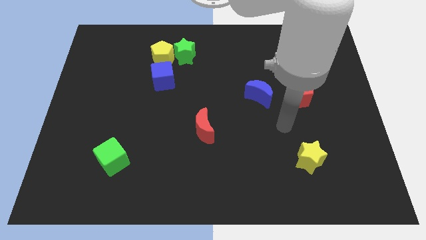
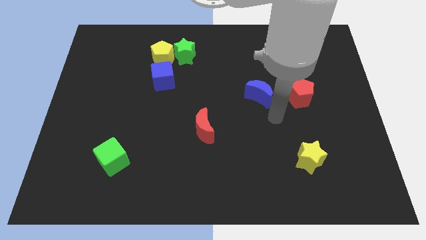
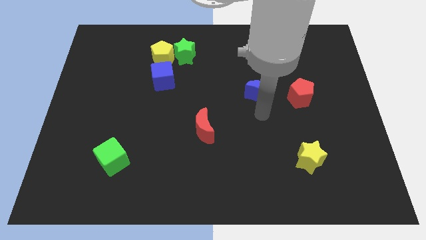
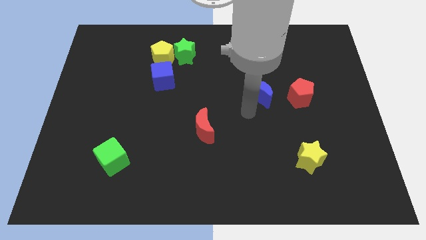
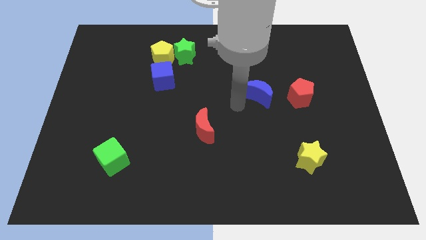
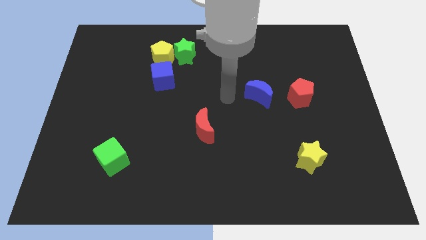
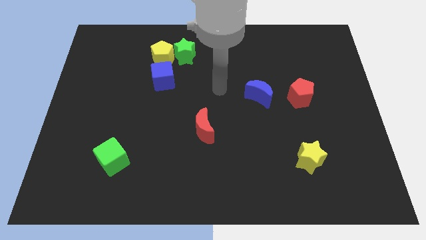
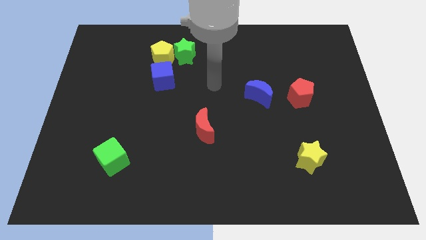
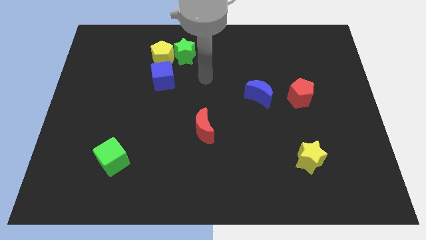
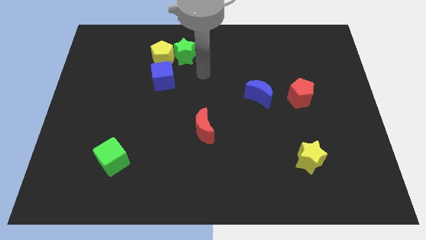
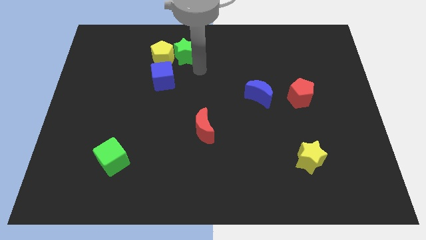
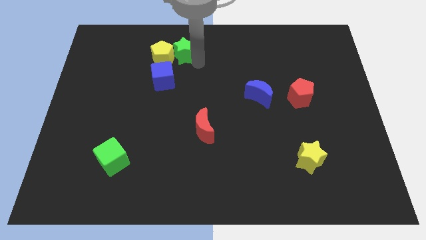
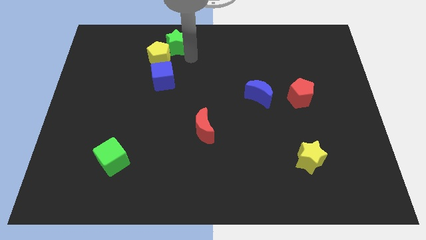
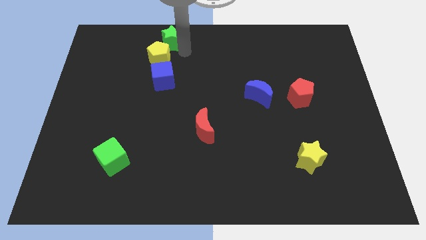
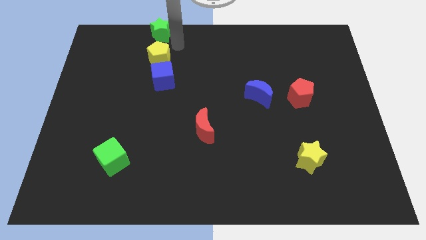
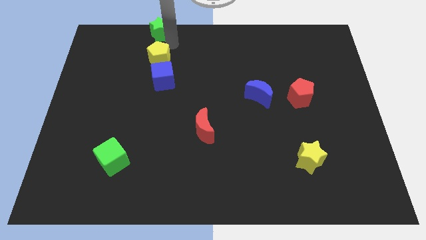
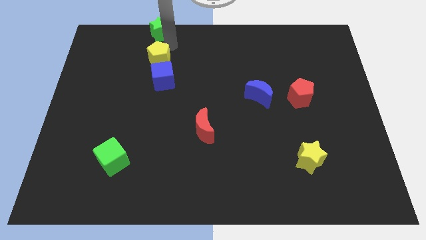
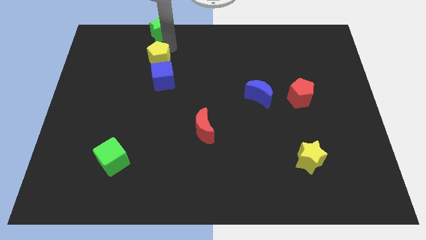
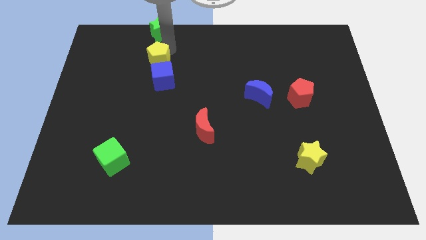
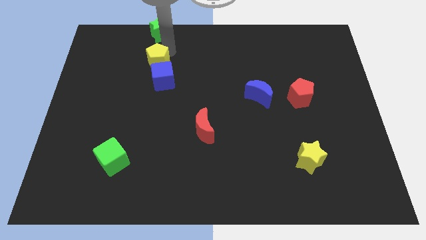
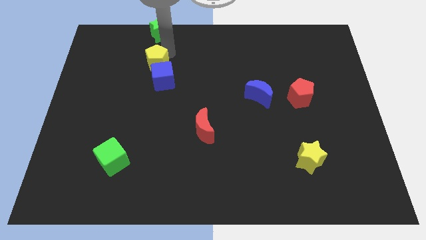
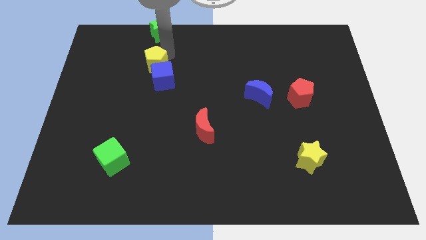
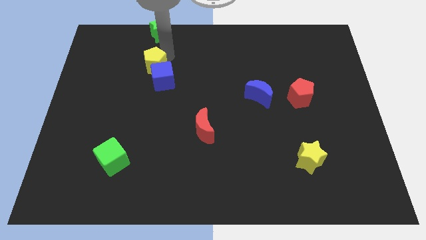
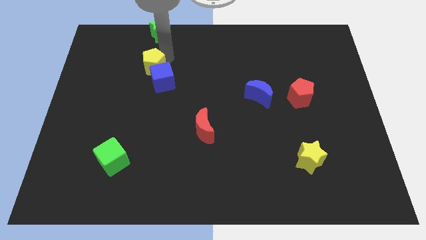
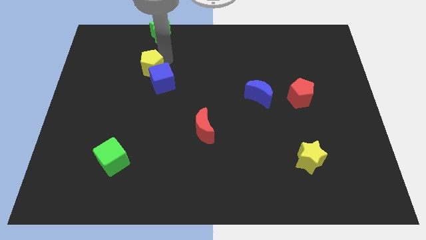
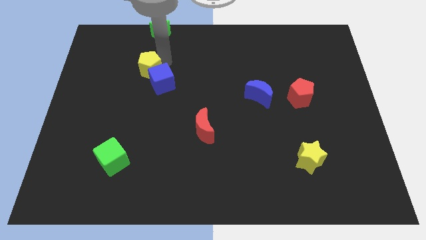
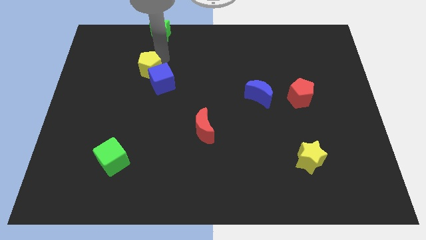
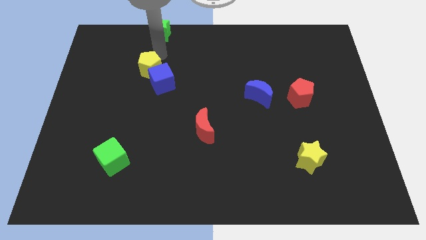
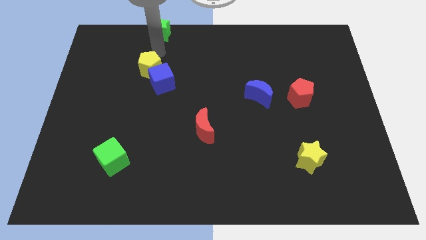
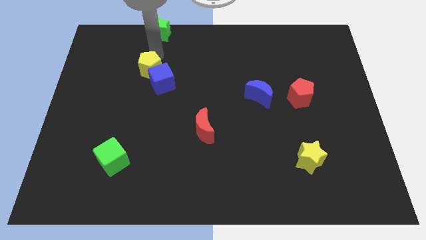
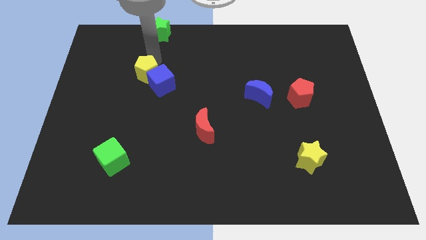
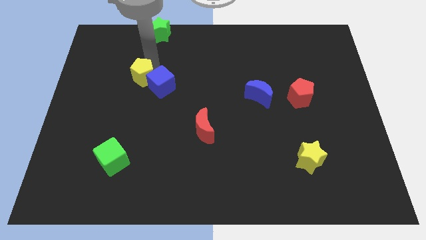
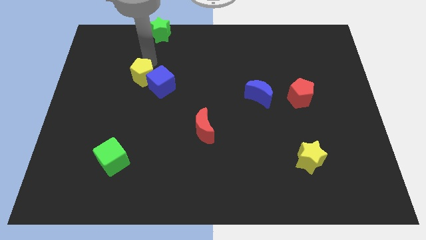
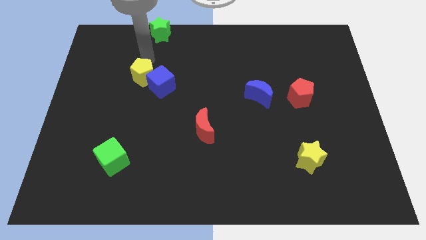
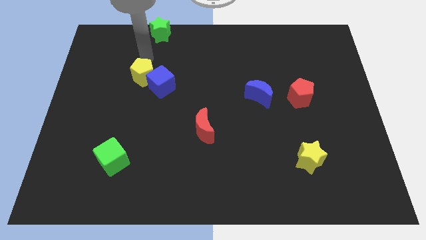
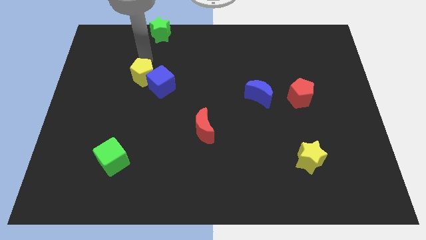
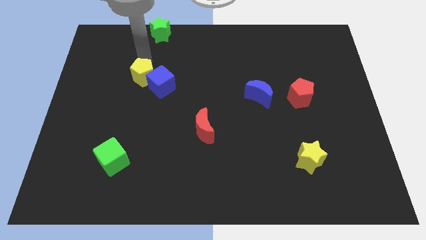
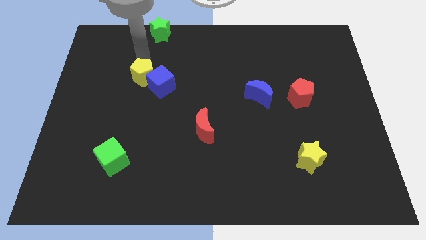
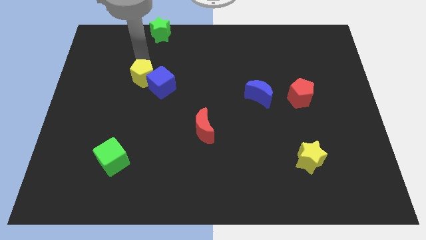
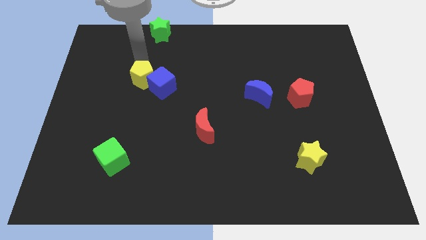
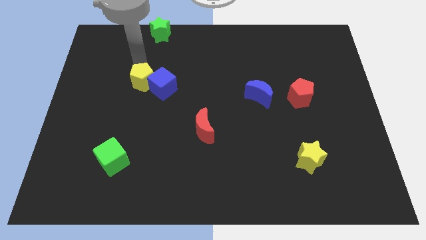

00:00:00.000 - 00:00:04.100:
move the yellow pentagon a little bit down

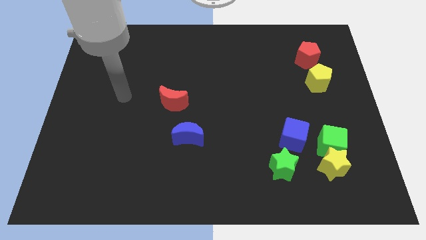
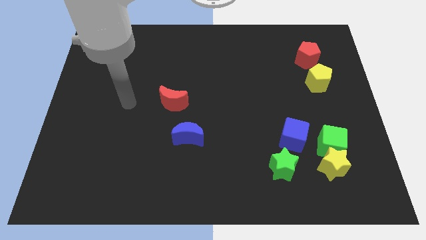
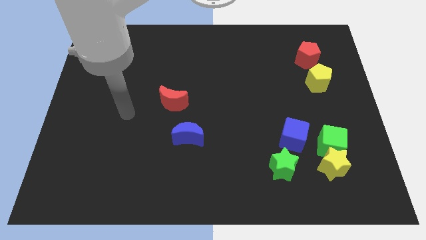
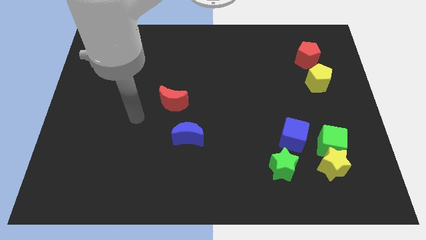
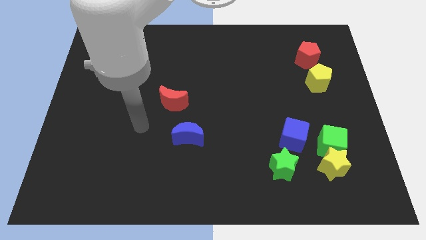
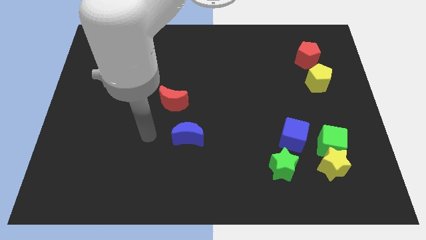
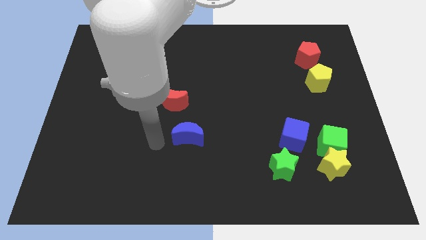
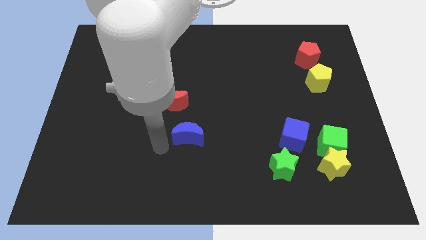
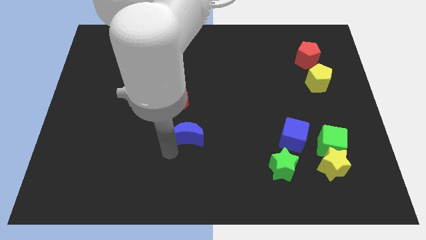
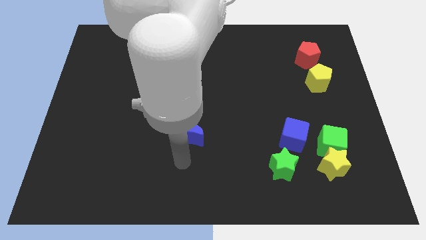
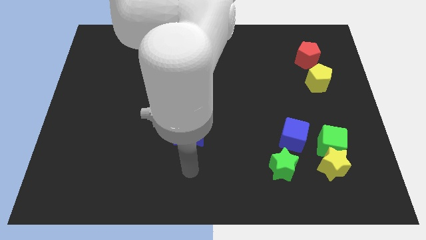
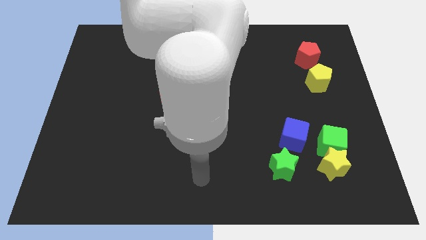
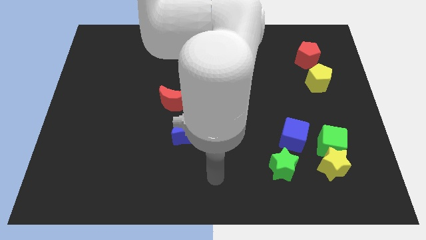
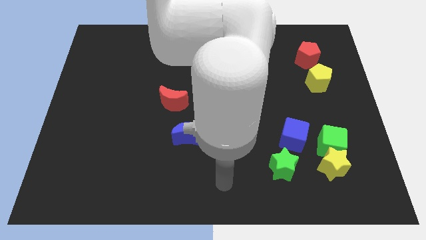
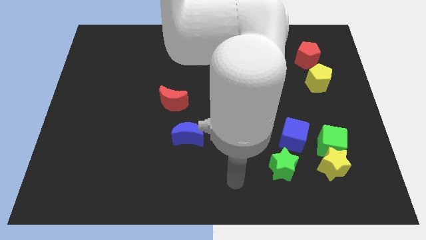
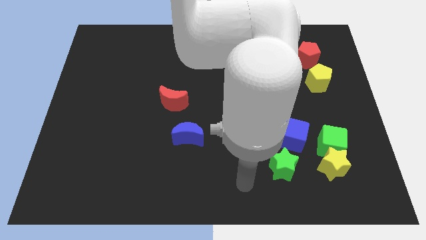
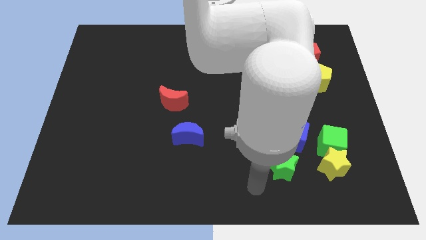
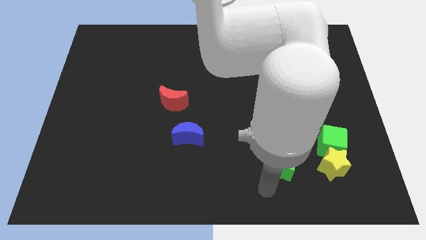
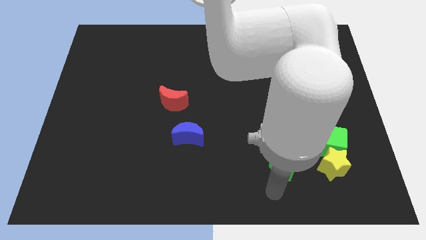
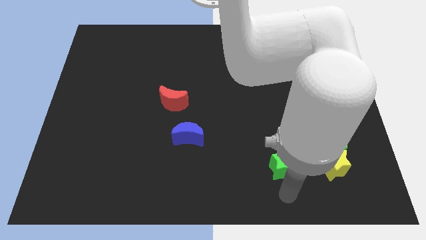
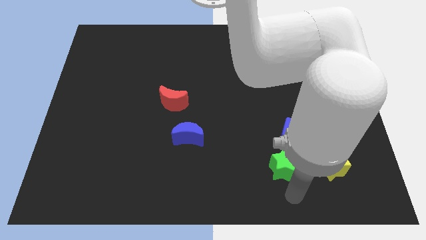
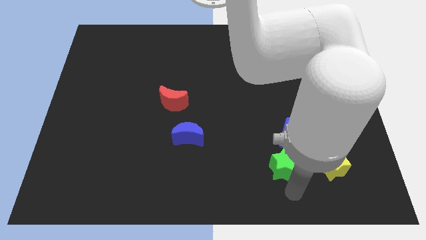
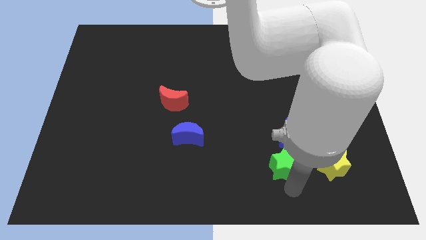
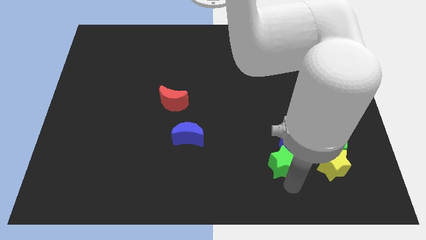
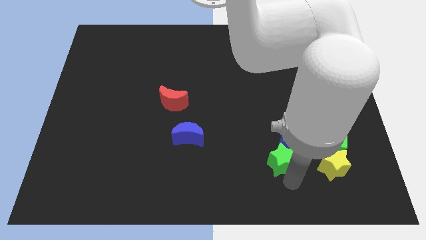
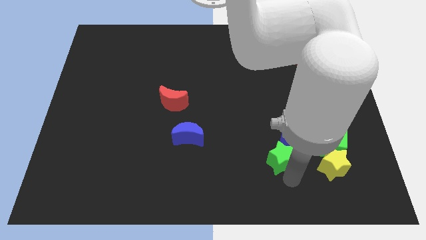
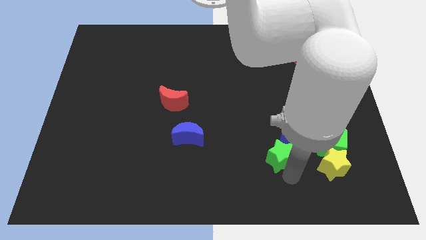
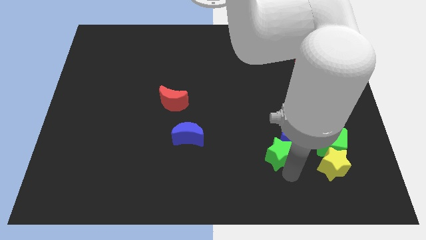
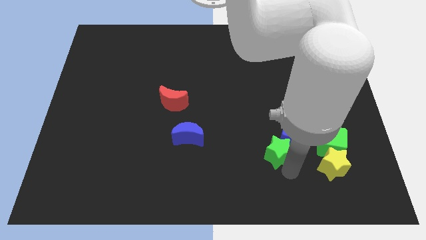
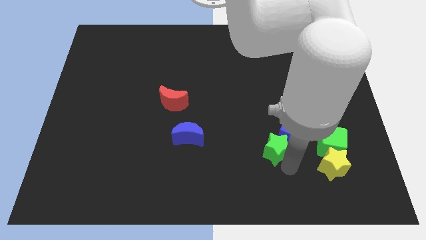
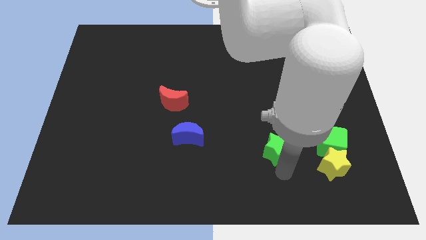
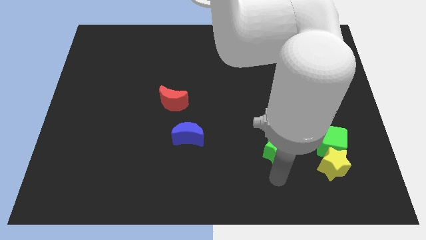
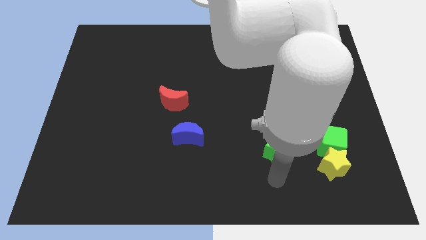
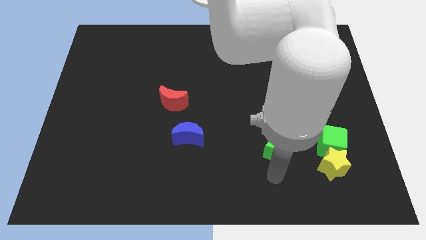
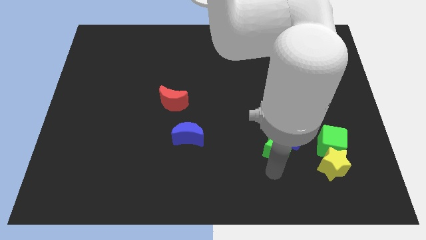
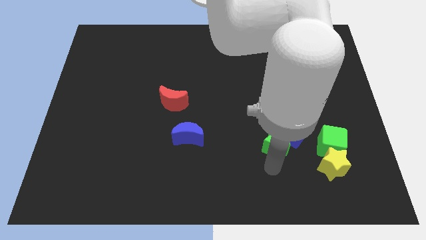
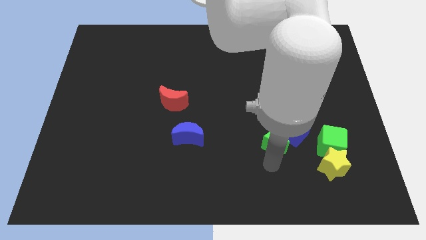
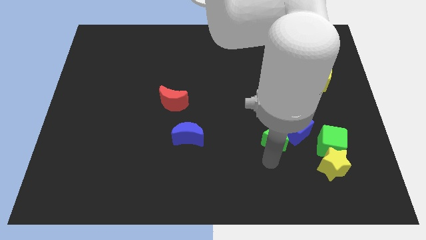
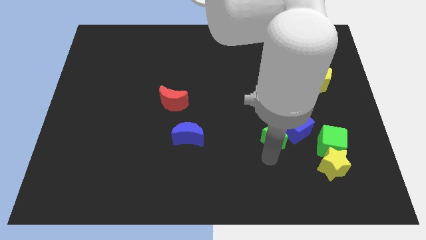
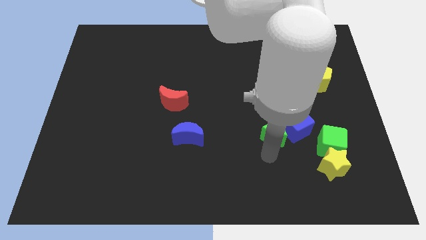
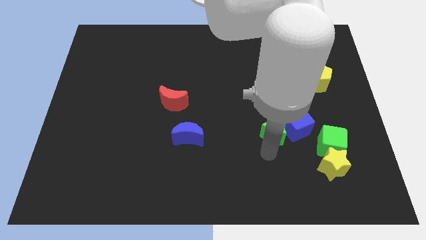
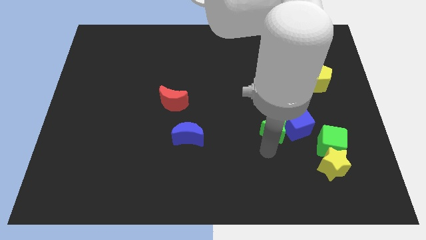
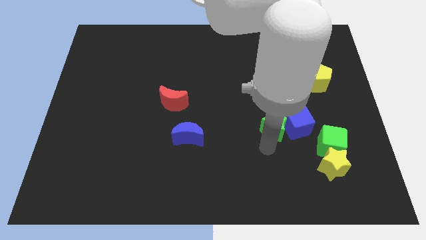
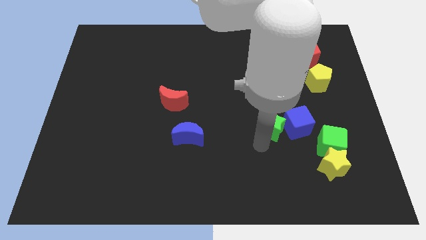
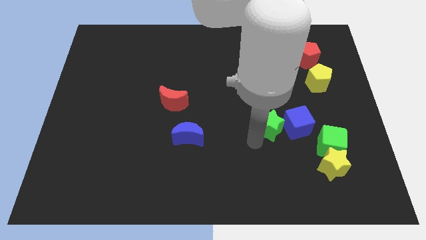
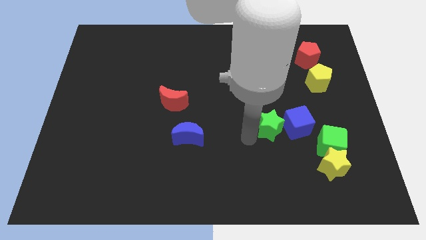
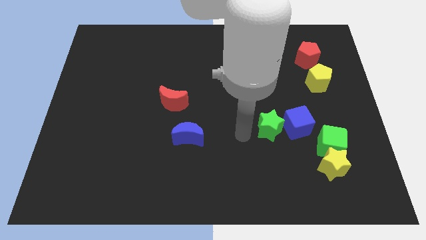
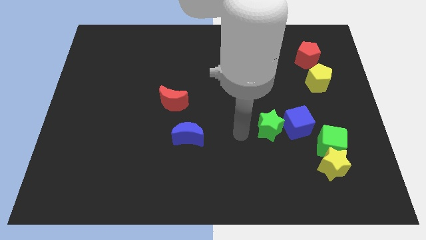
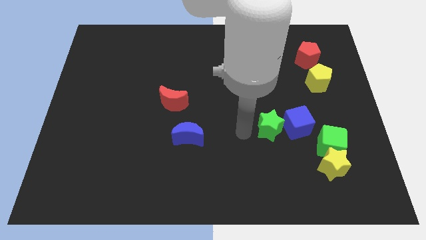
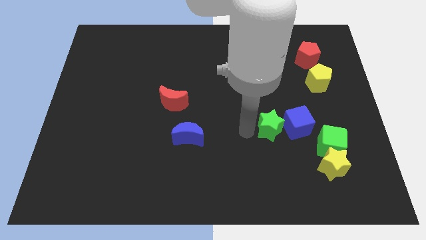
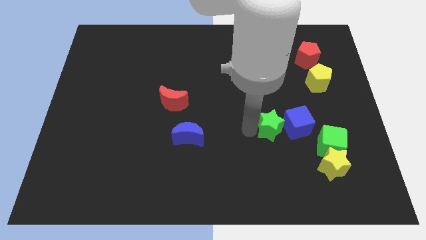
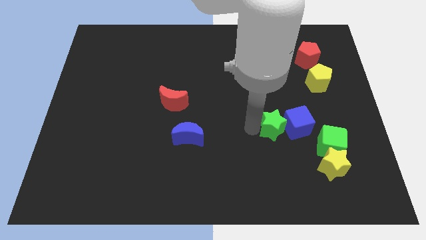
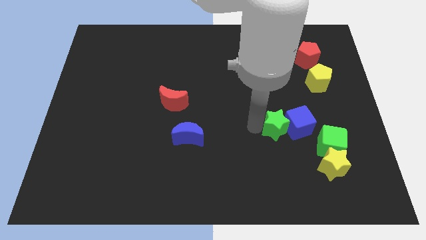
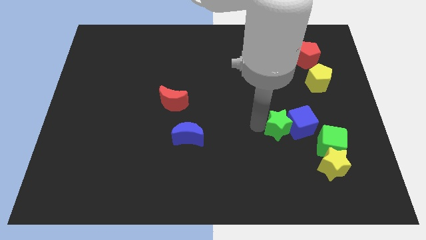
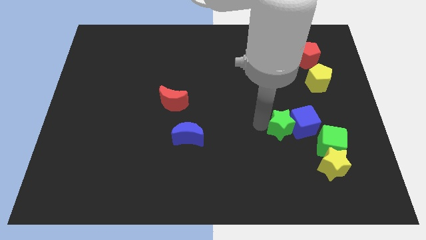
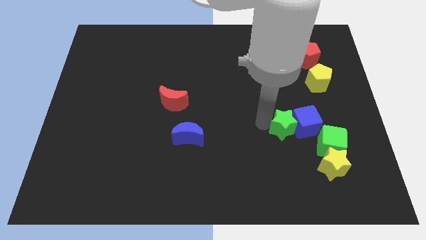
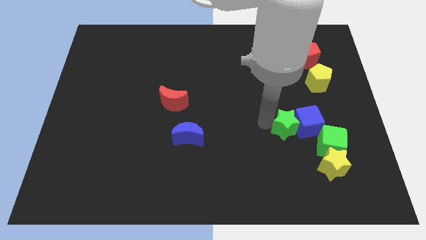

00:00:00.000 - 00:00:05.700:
slide the green star up and then right a little bit
